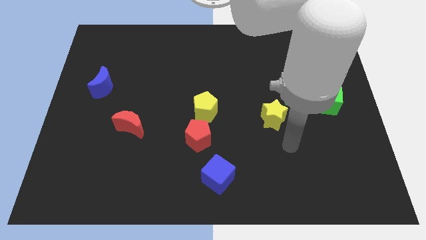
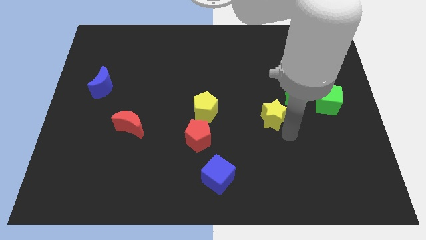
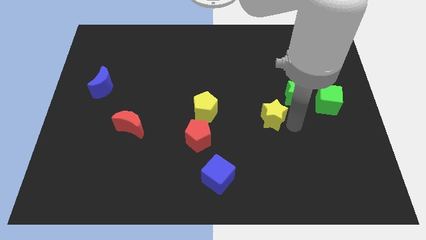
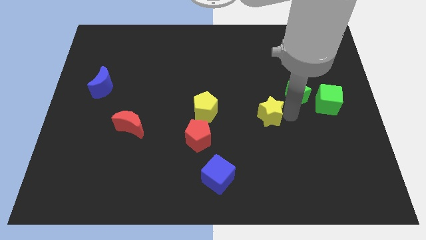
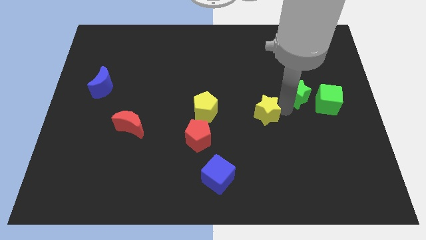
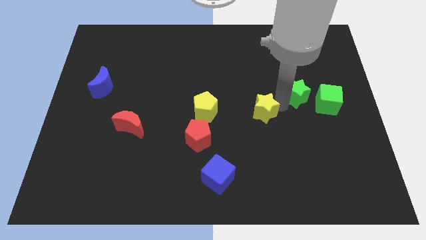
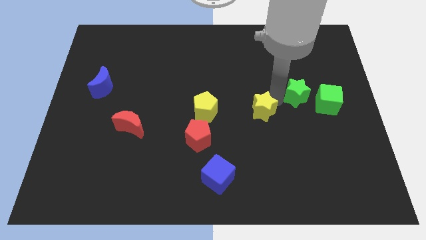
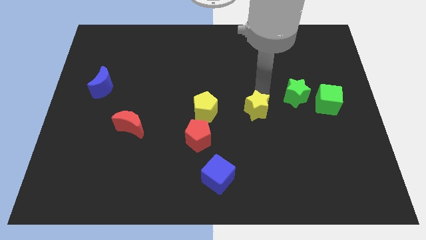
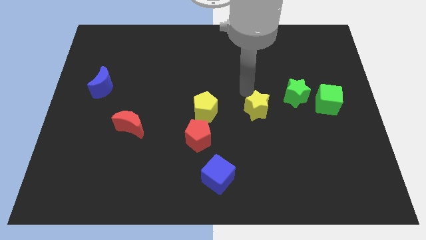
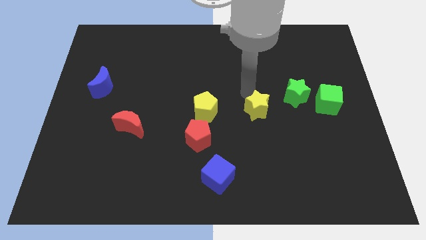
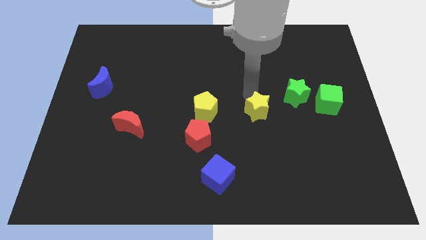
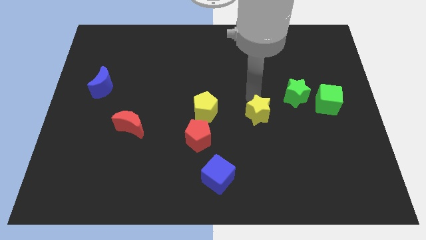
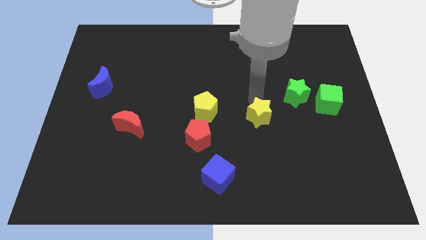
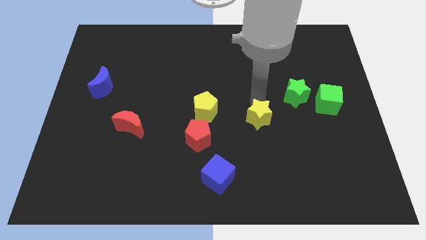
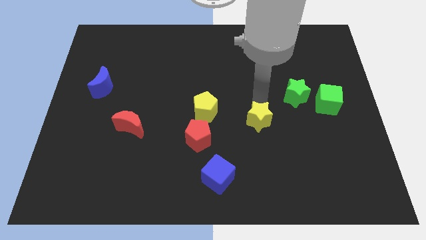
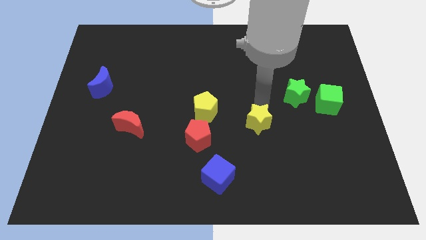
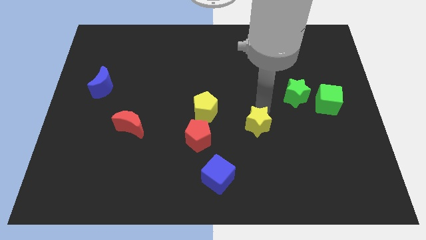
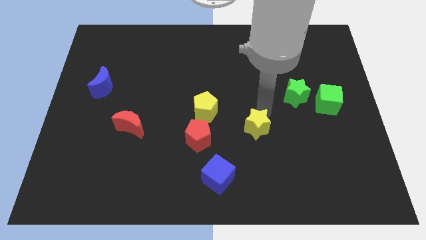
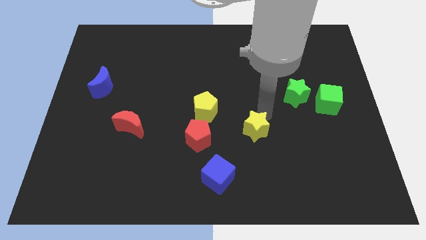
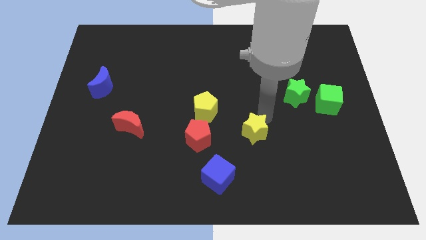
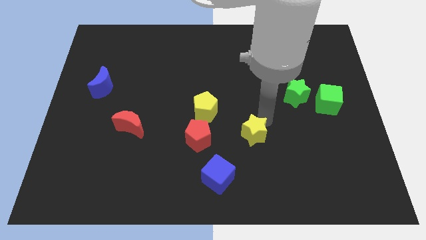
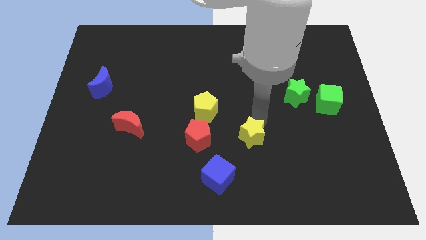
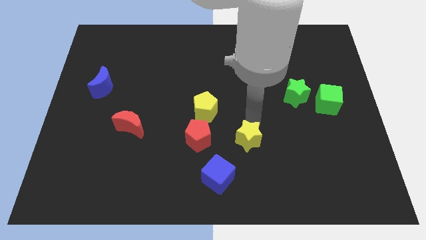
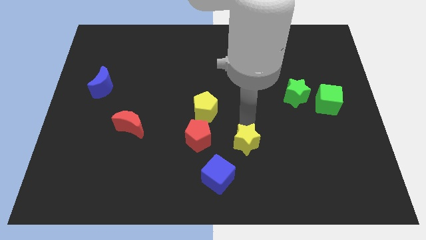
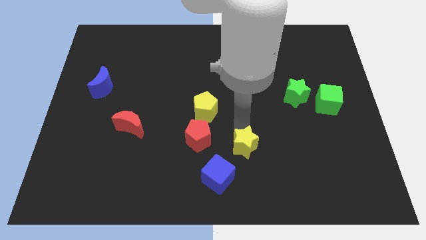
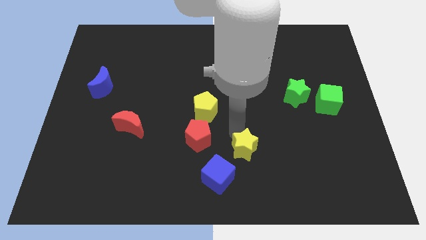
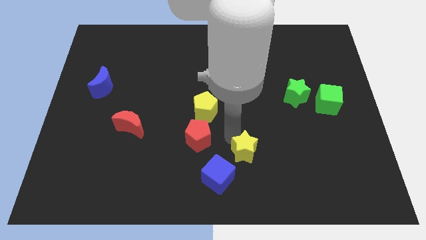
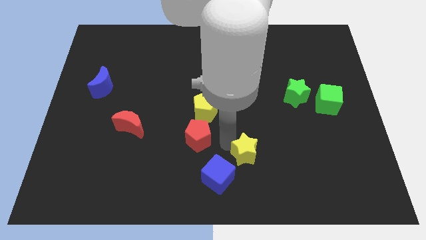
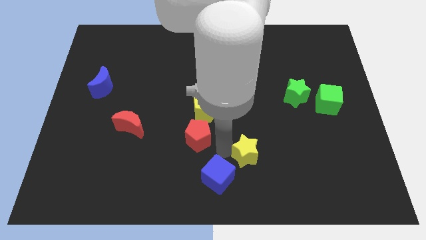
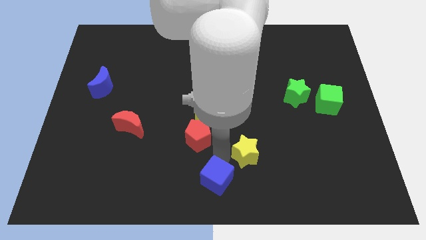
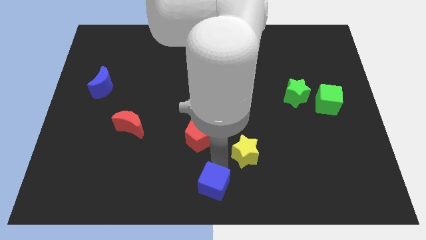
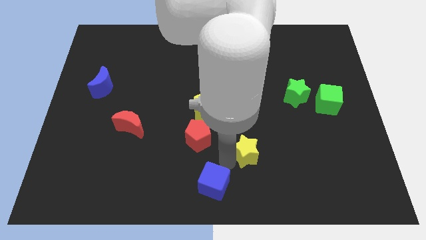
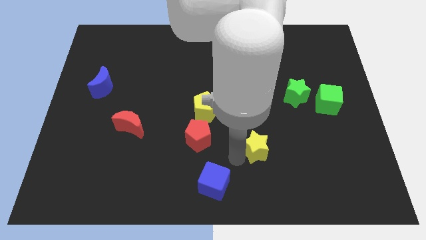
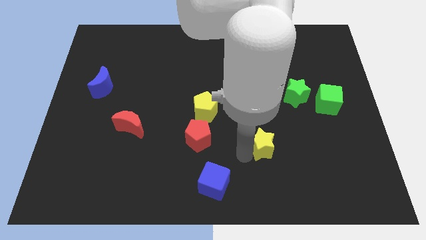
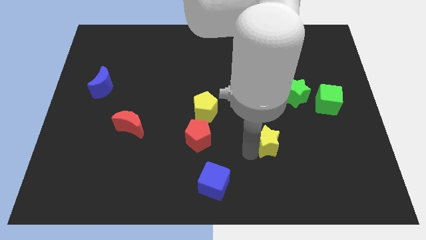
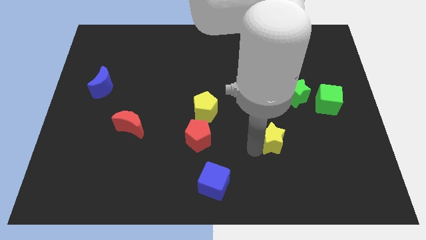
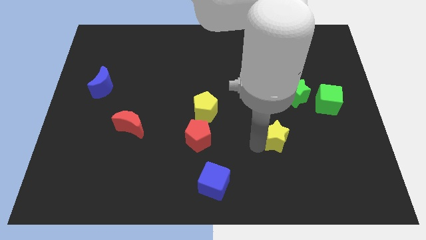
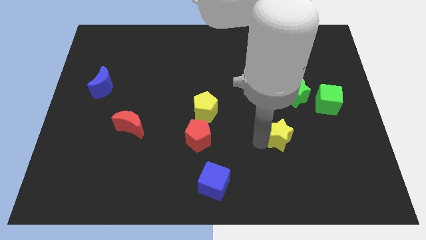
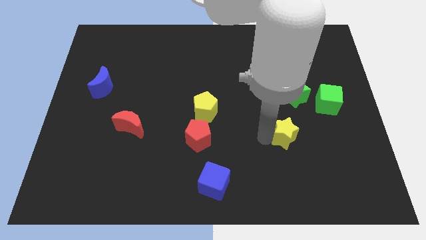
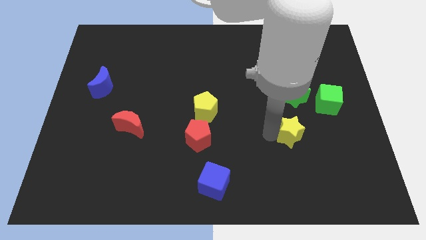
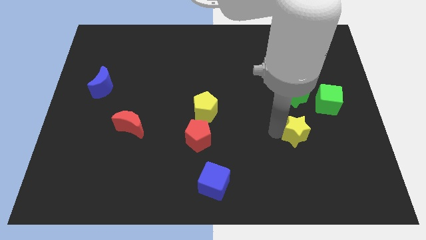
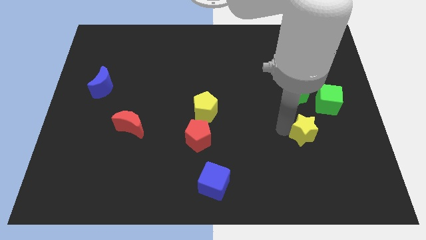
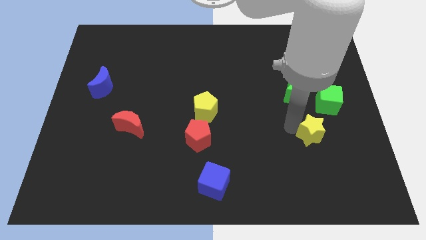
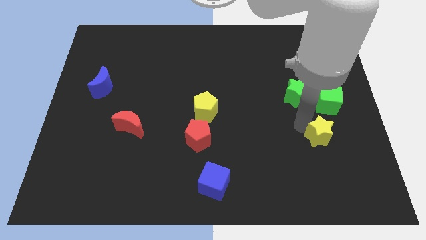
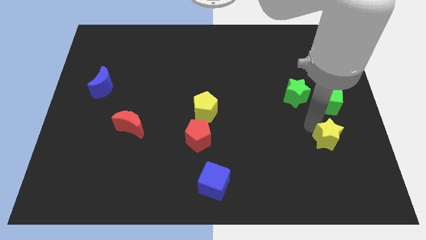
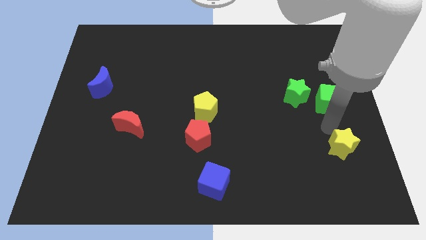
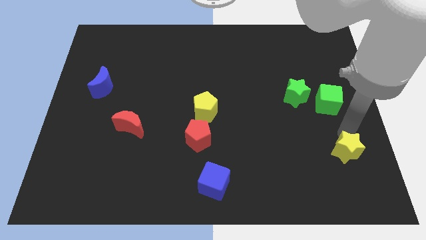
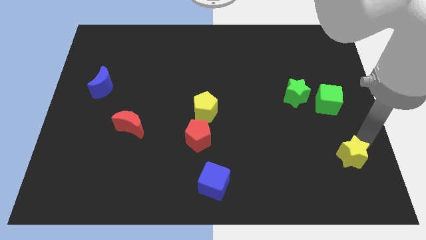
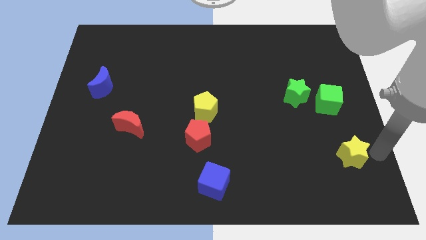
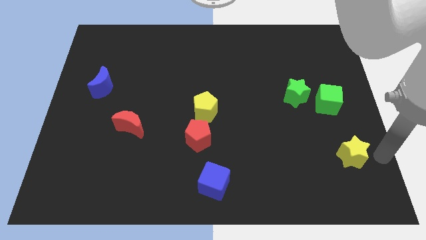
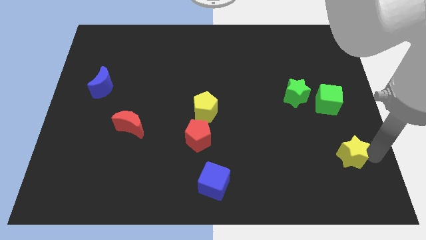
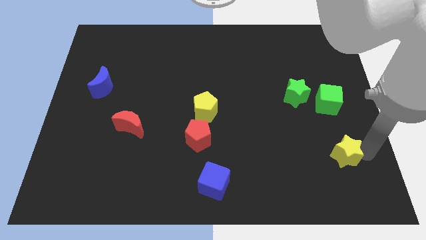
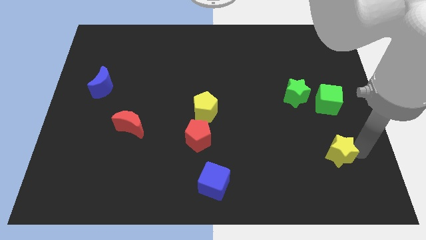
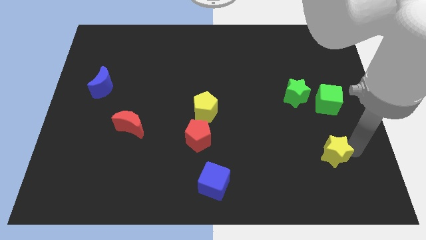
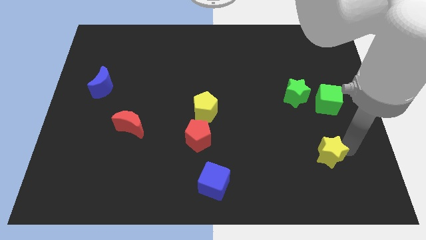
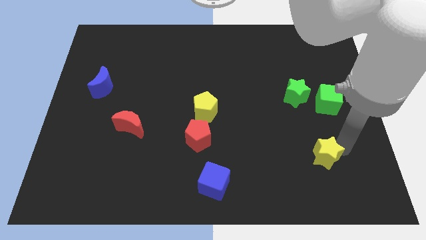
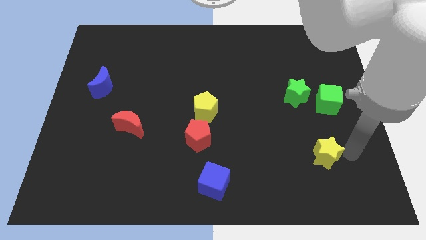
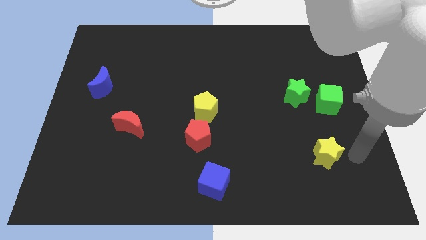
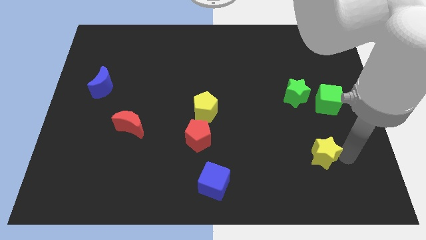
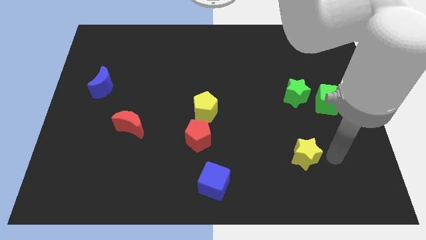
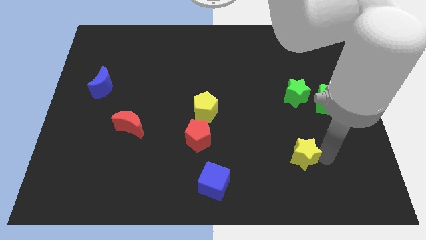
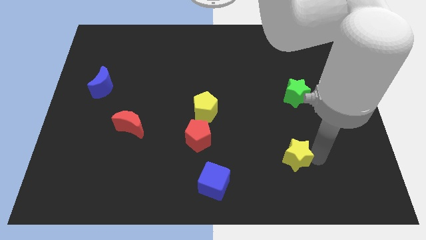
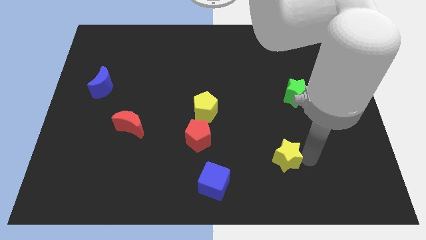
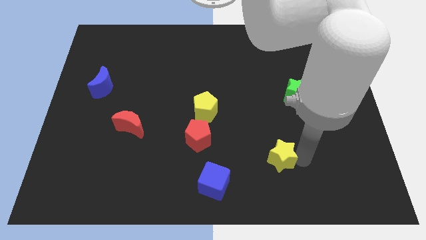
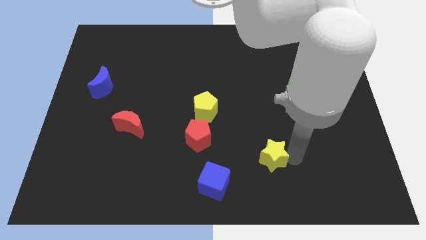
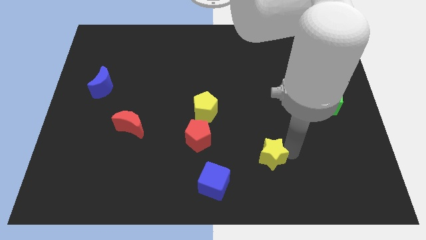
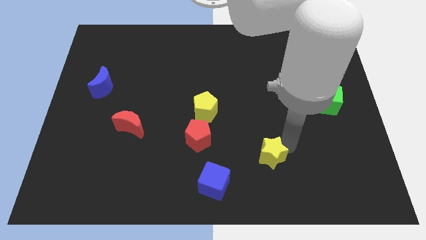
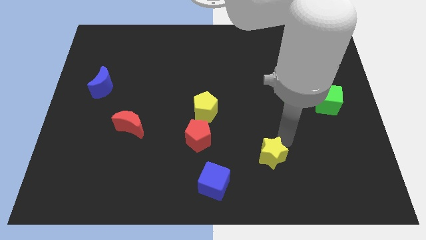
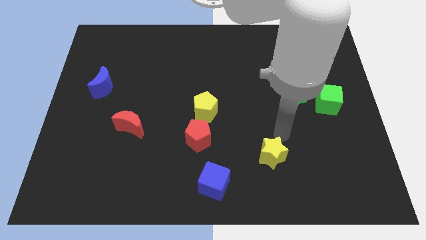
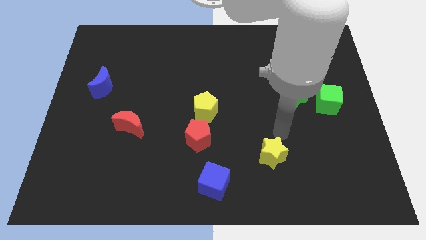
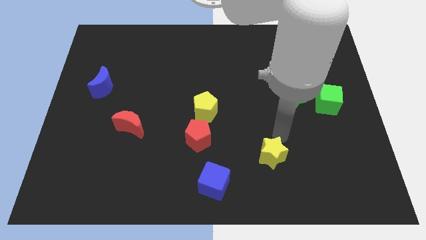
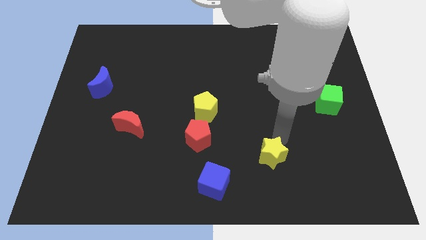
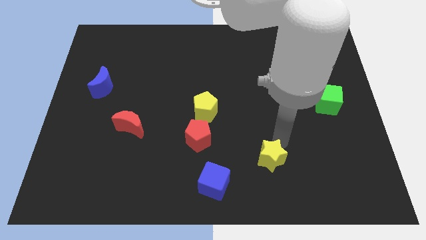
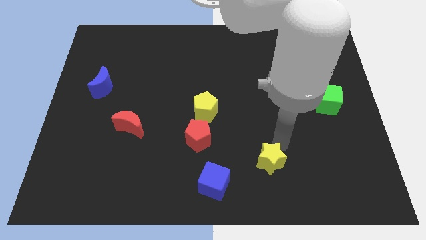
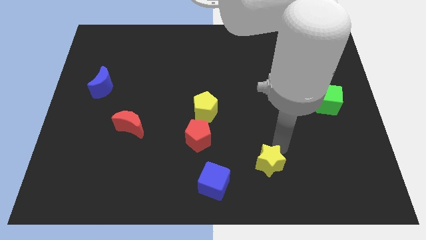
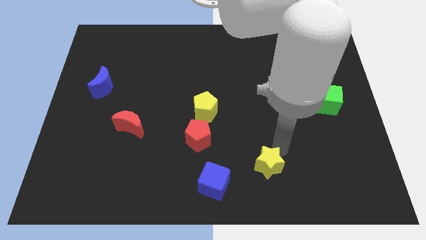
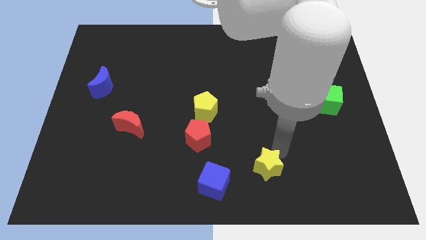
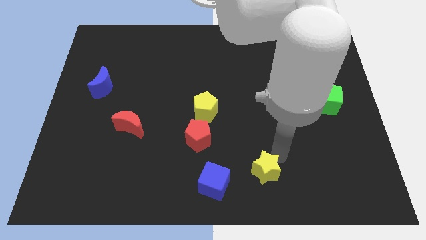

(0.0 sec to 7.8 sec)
move the yellow star to the bottom side
